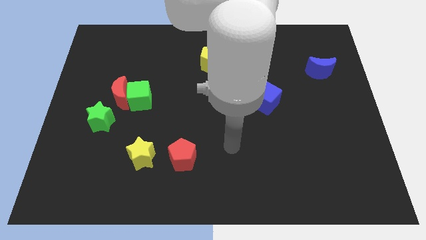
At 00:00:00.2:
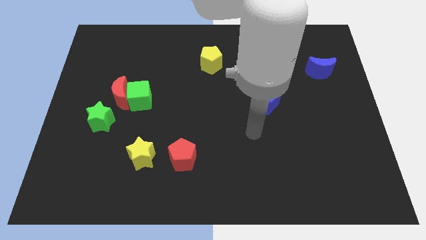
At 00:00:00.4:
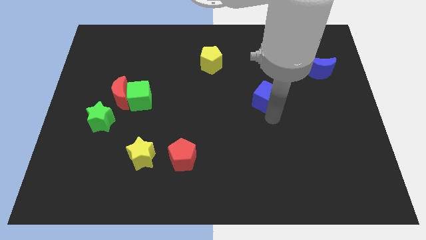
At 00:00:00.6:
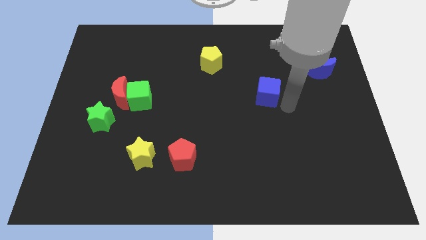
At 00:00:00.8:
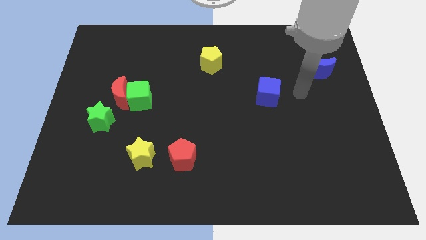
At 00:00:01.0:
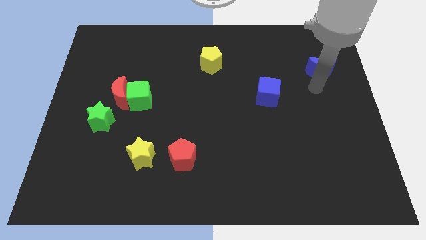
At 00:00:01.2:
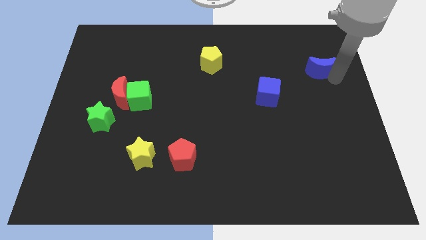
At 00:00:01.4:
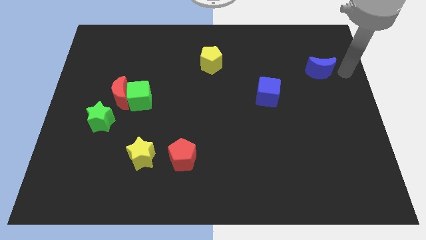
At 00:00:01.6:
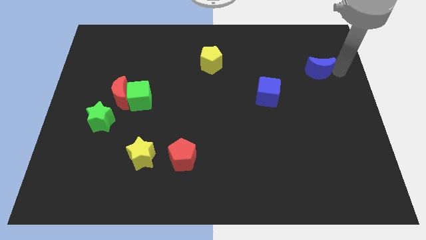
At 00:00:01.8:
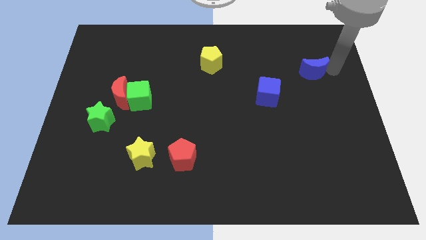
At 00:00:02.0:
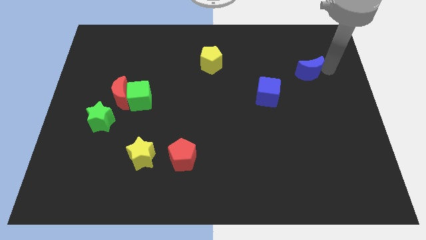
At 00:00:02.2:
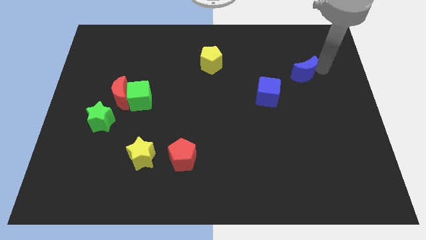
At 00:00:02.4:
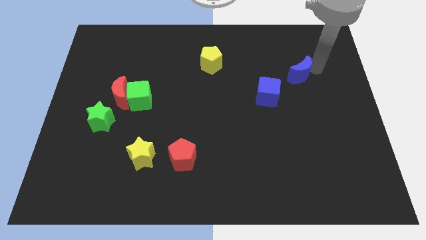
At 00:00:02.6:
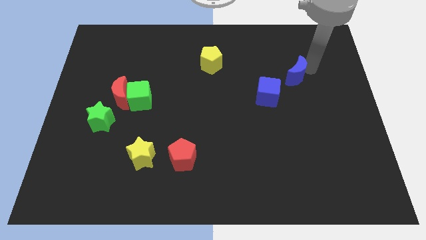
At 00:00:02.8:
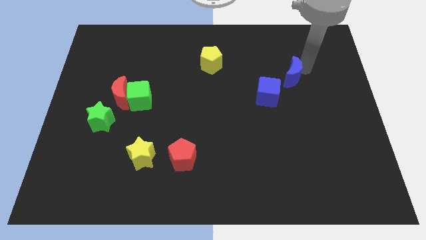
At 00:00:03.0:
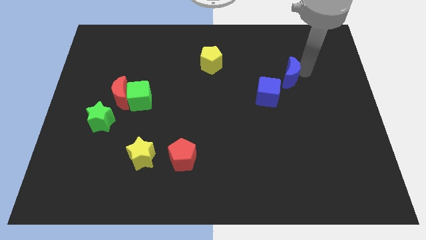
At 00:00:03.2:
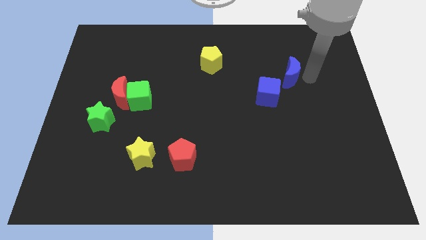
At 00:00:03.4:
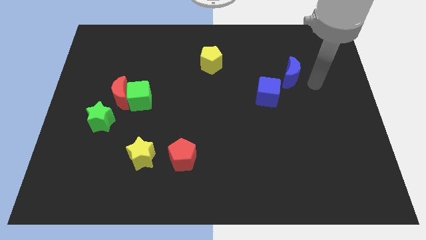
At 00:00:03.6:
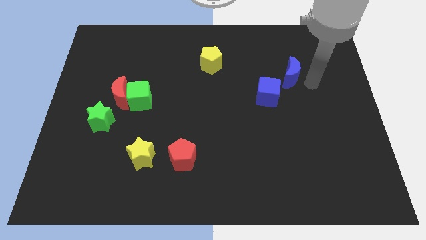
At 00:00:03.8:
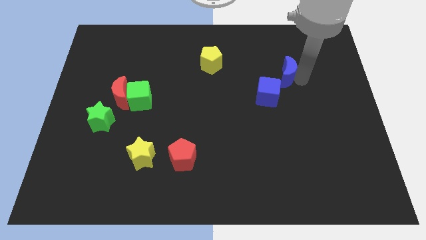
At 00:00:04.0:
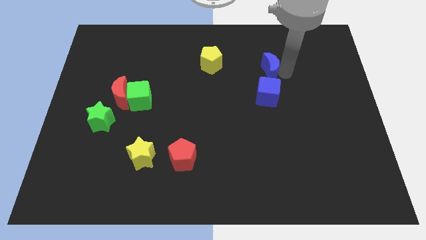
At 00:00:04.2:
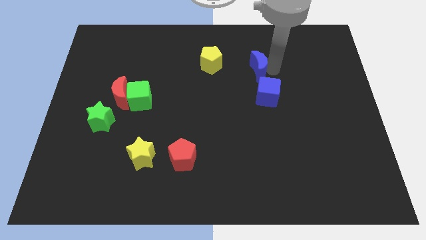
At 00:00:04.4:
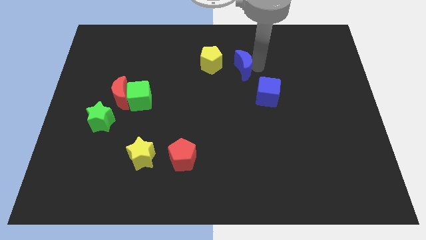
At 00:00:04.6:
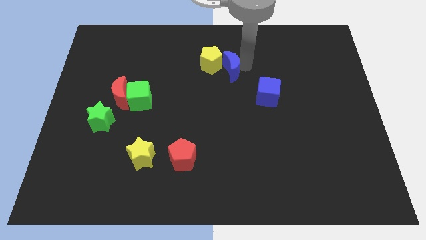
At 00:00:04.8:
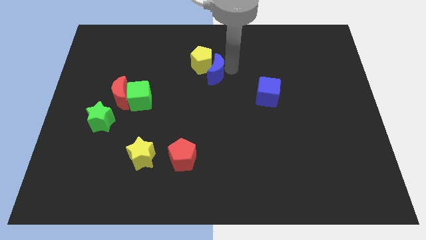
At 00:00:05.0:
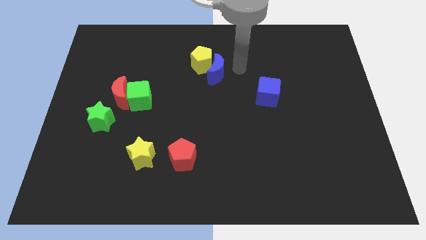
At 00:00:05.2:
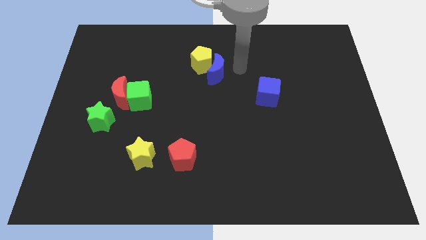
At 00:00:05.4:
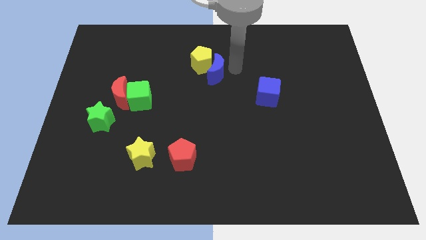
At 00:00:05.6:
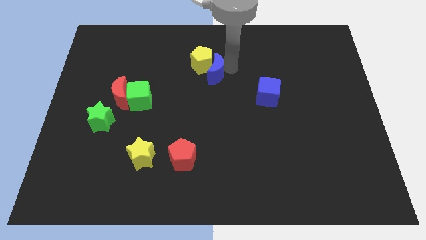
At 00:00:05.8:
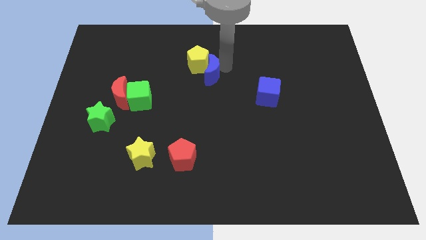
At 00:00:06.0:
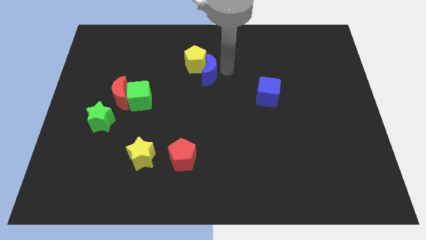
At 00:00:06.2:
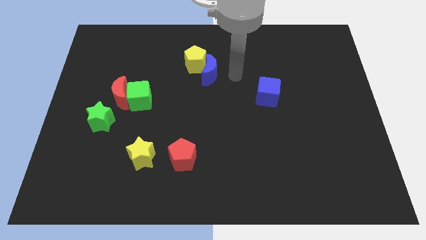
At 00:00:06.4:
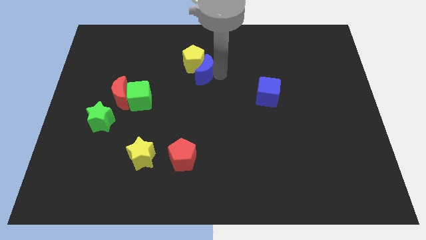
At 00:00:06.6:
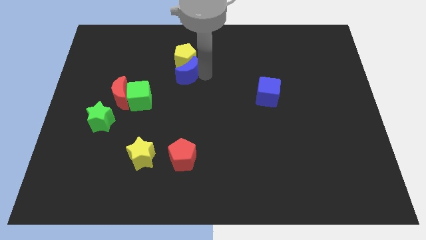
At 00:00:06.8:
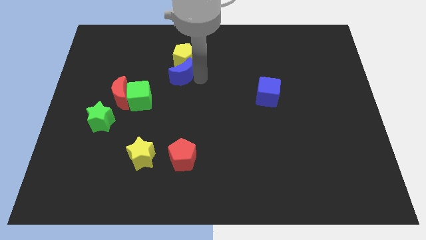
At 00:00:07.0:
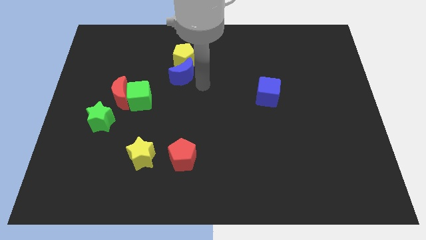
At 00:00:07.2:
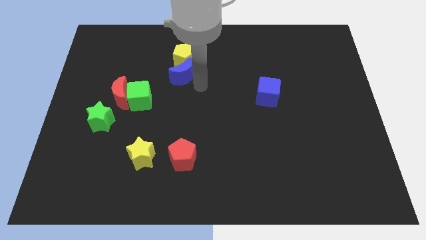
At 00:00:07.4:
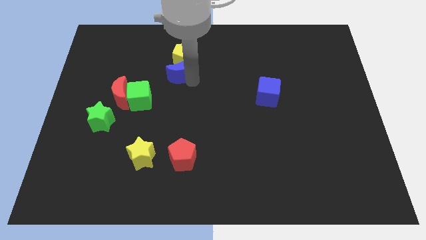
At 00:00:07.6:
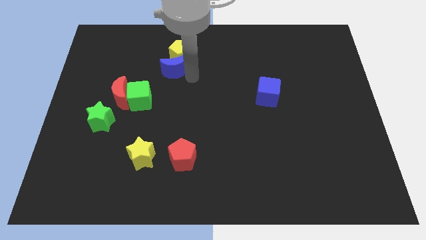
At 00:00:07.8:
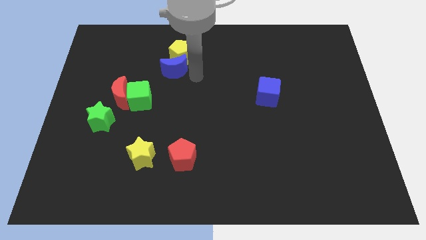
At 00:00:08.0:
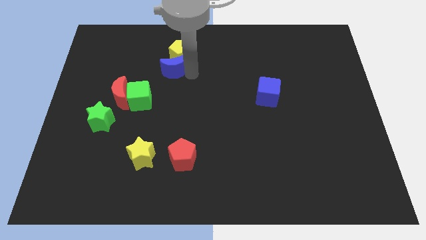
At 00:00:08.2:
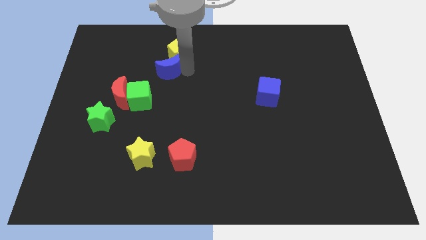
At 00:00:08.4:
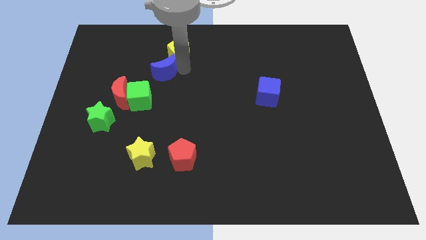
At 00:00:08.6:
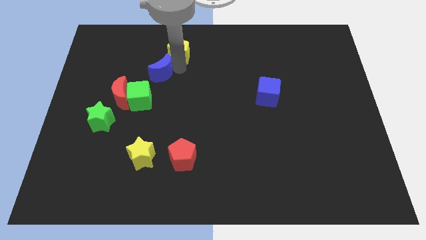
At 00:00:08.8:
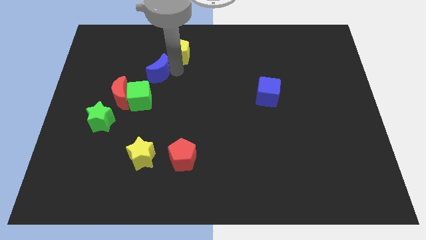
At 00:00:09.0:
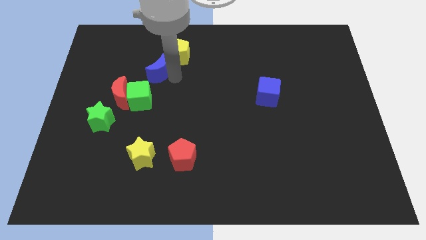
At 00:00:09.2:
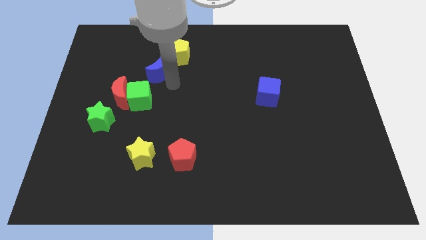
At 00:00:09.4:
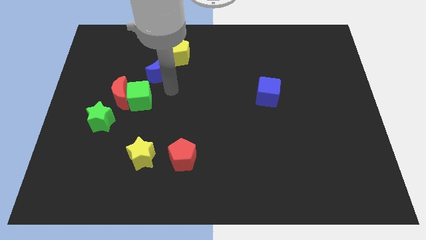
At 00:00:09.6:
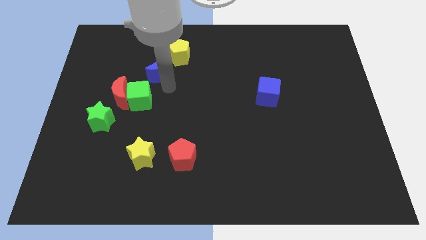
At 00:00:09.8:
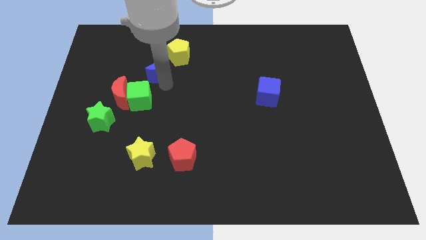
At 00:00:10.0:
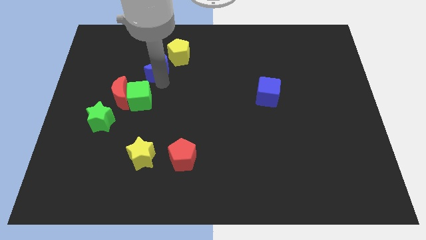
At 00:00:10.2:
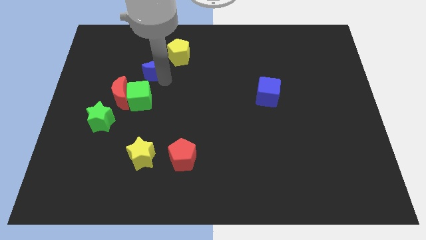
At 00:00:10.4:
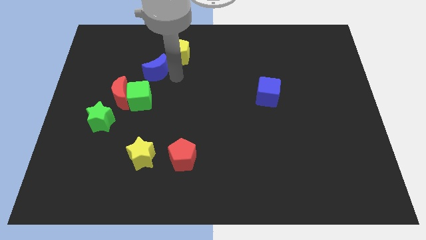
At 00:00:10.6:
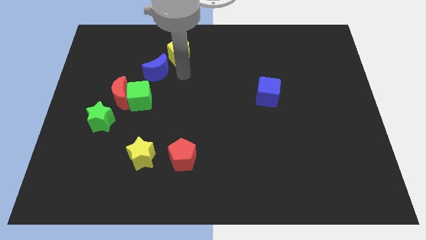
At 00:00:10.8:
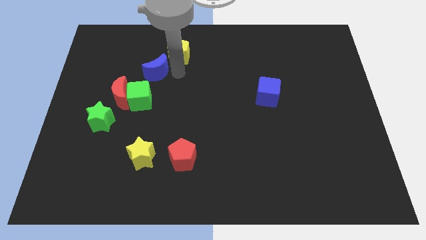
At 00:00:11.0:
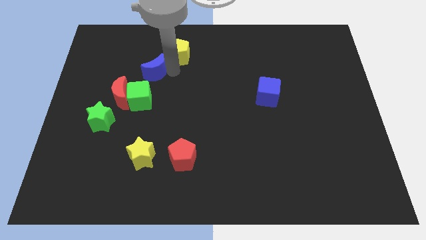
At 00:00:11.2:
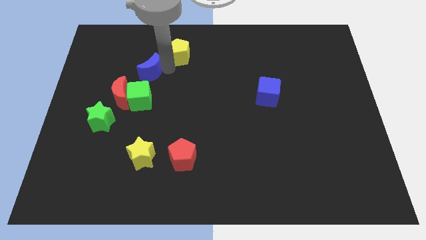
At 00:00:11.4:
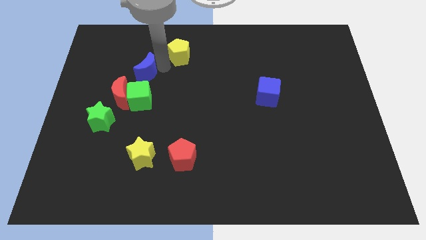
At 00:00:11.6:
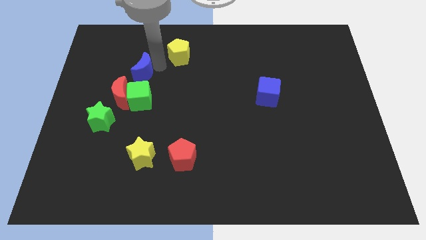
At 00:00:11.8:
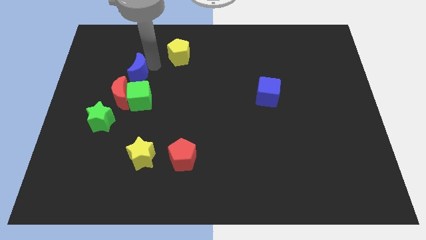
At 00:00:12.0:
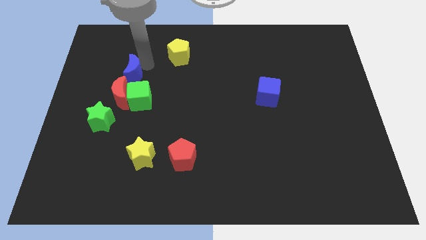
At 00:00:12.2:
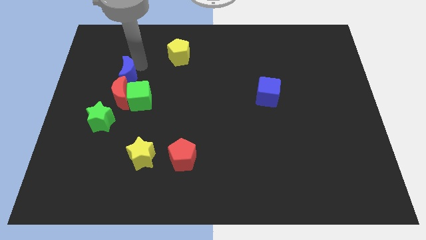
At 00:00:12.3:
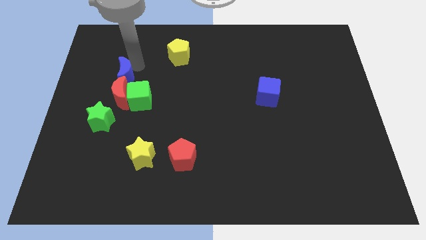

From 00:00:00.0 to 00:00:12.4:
move the blue moon to the top left side of the red moon

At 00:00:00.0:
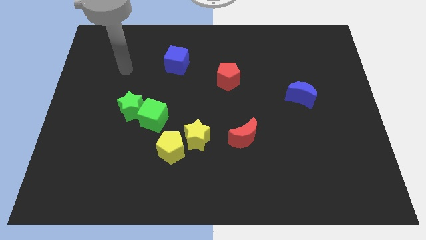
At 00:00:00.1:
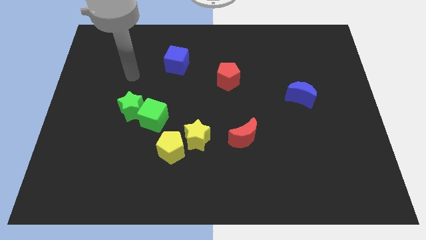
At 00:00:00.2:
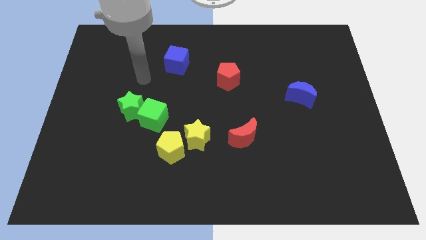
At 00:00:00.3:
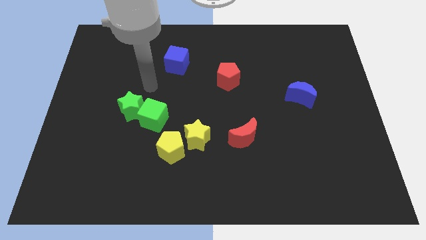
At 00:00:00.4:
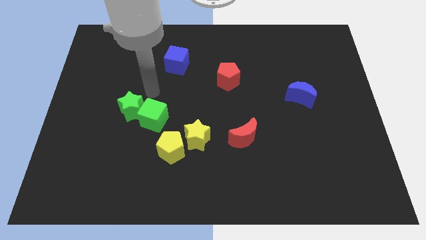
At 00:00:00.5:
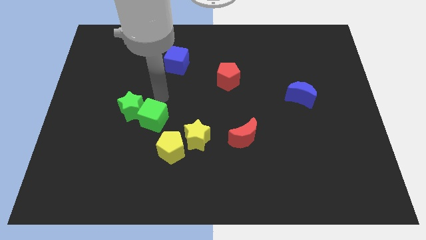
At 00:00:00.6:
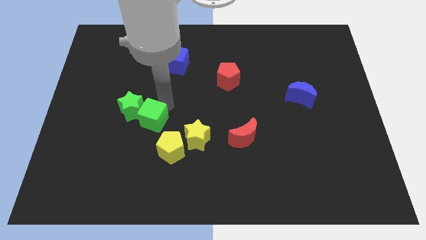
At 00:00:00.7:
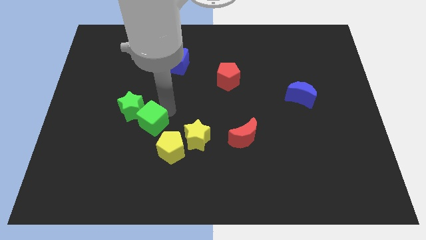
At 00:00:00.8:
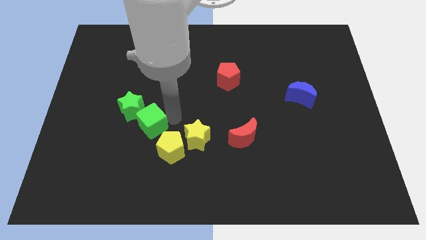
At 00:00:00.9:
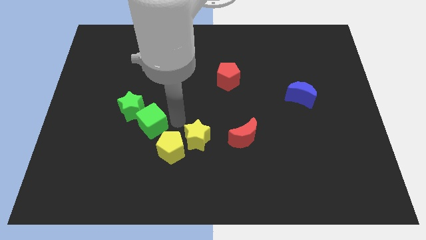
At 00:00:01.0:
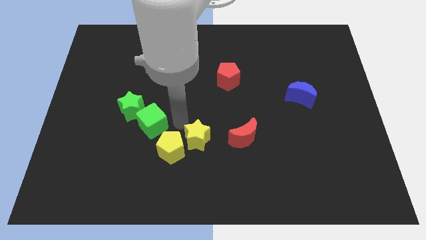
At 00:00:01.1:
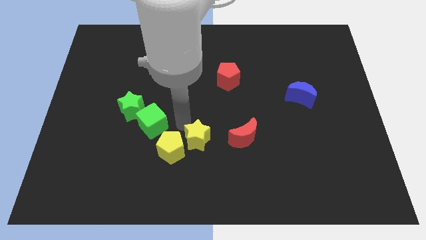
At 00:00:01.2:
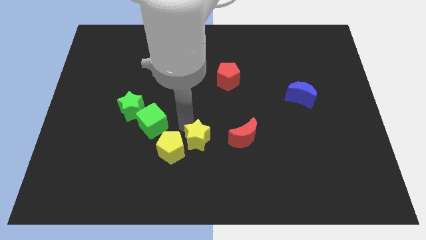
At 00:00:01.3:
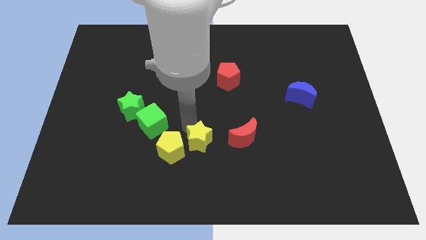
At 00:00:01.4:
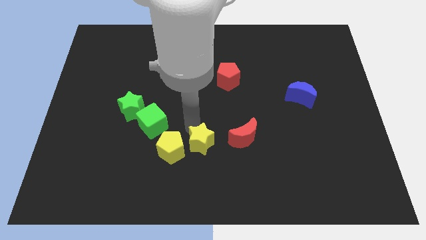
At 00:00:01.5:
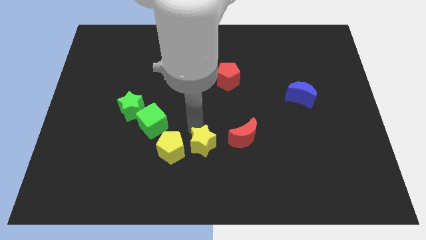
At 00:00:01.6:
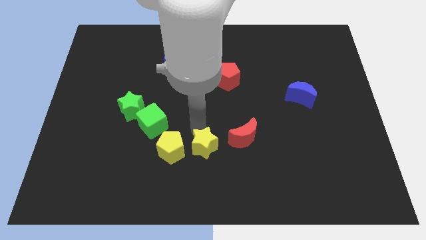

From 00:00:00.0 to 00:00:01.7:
push the yellow star to the bottom left side of the red moon

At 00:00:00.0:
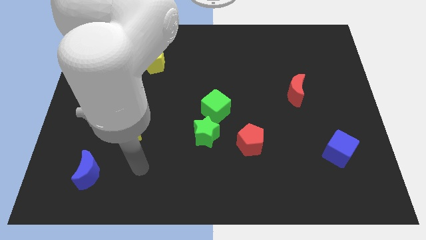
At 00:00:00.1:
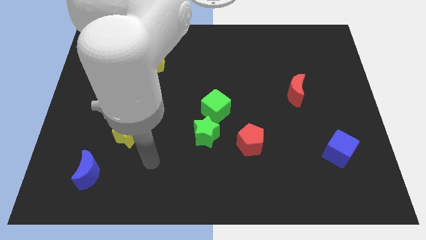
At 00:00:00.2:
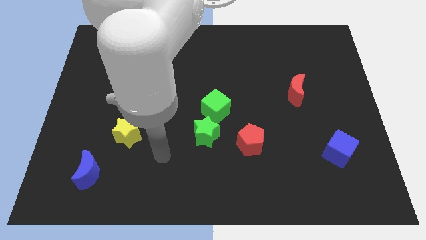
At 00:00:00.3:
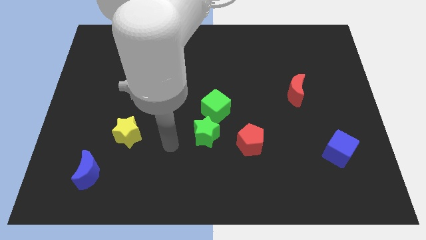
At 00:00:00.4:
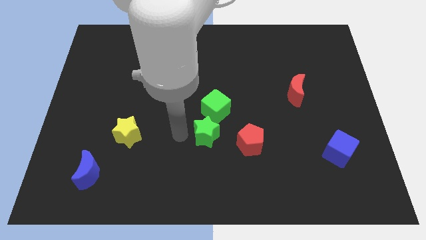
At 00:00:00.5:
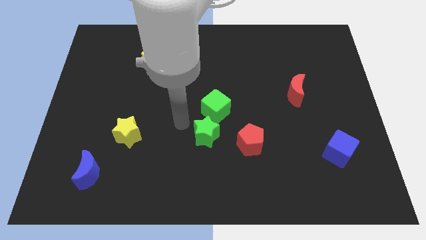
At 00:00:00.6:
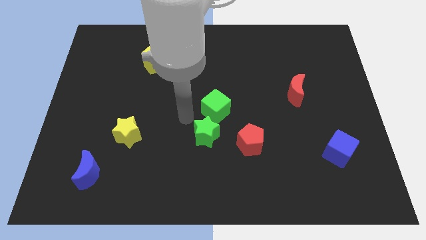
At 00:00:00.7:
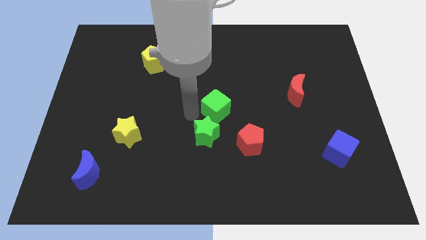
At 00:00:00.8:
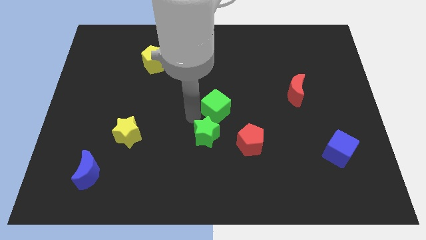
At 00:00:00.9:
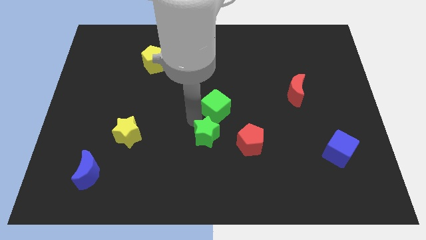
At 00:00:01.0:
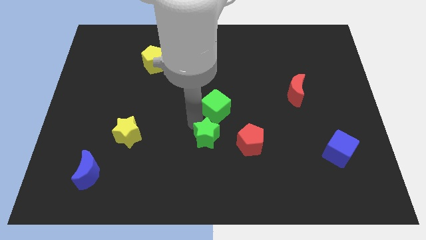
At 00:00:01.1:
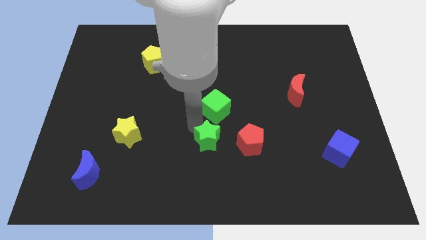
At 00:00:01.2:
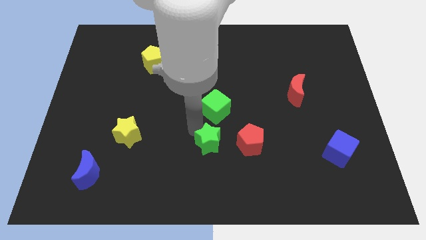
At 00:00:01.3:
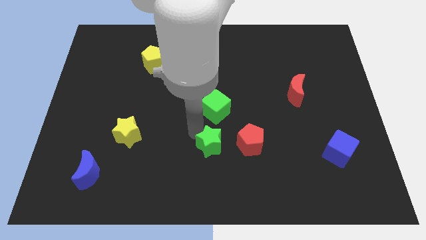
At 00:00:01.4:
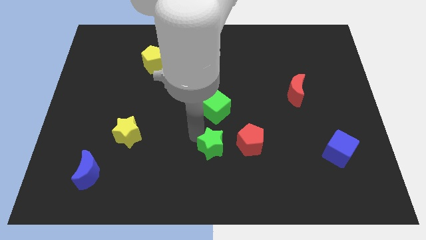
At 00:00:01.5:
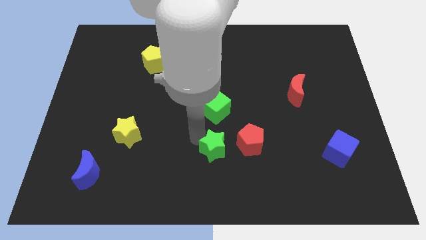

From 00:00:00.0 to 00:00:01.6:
move the green star to the bottom left side of the red pentagon
